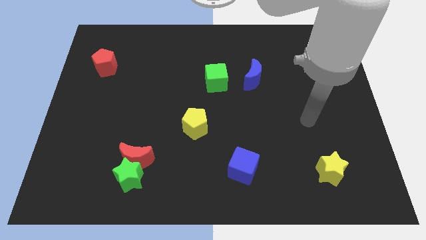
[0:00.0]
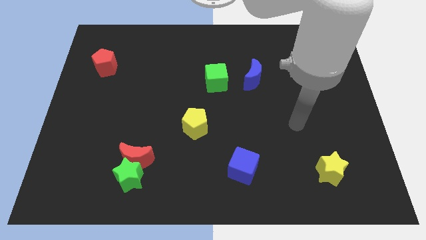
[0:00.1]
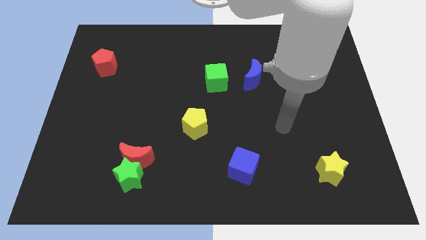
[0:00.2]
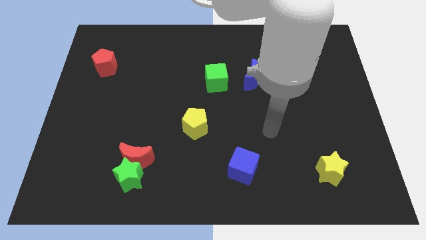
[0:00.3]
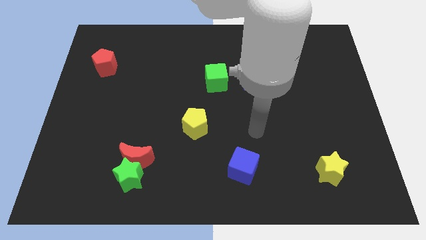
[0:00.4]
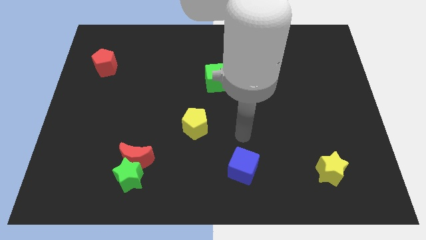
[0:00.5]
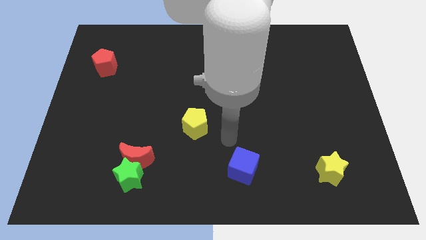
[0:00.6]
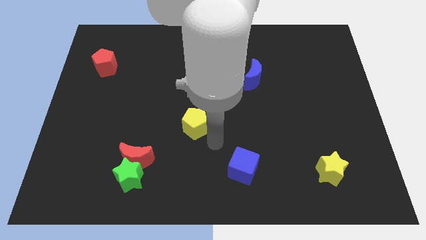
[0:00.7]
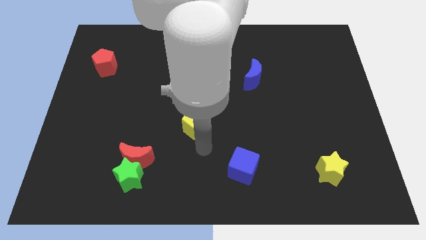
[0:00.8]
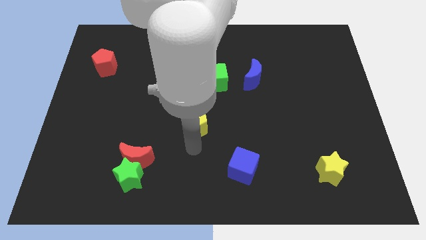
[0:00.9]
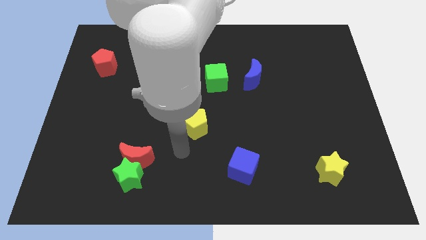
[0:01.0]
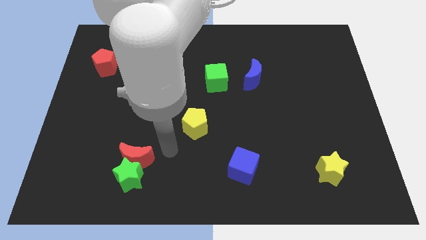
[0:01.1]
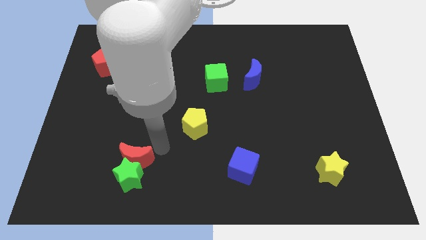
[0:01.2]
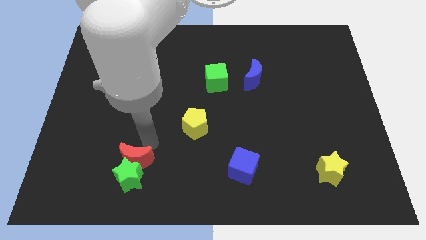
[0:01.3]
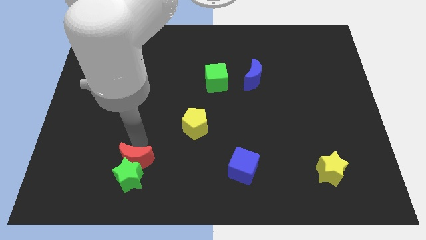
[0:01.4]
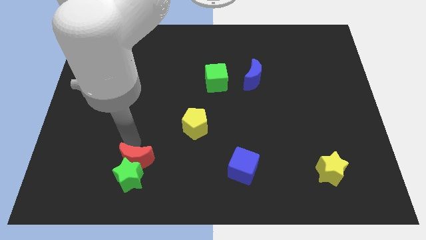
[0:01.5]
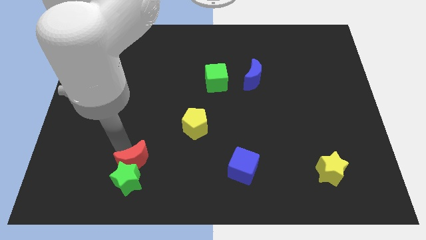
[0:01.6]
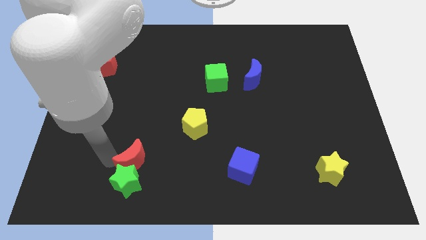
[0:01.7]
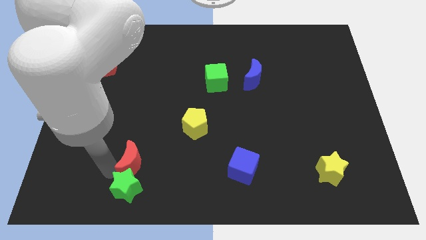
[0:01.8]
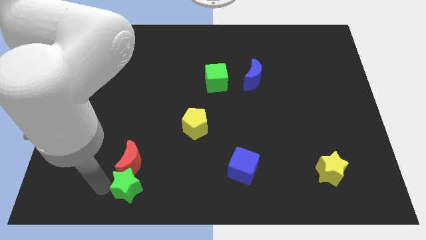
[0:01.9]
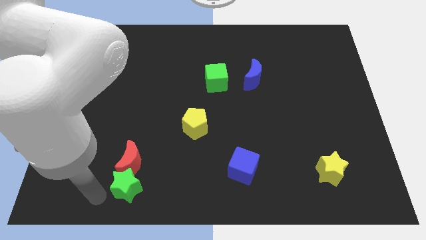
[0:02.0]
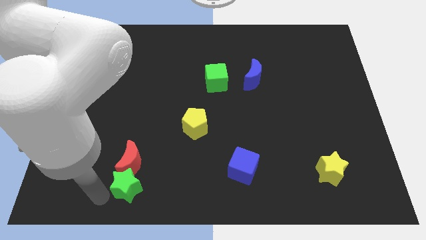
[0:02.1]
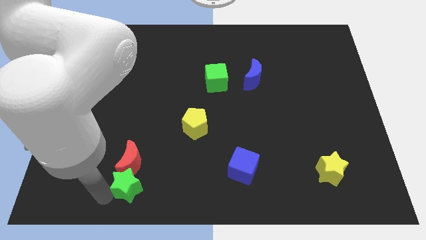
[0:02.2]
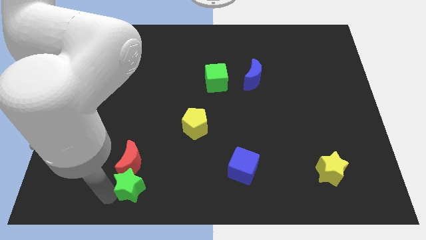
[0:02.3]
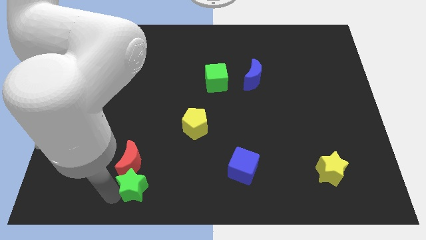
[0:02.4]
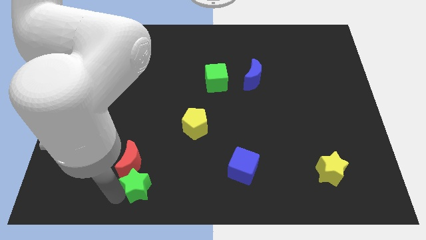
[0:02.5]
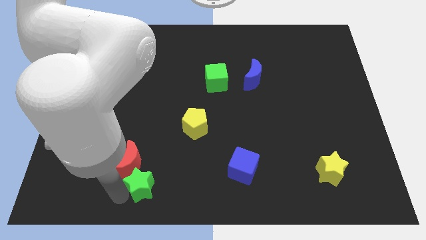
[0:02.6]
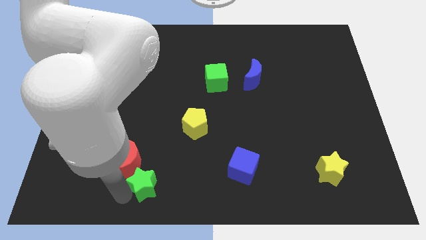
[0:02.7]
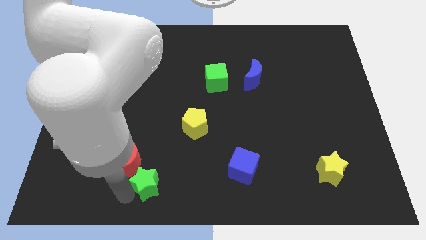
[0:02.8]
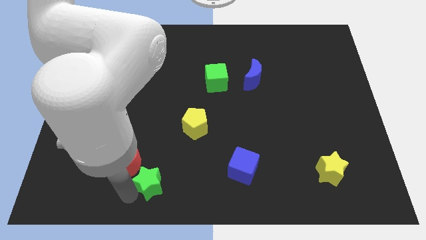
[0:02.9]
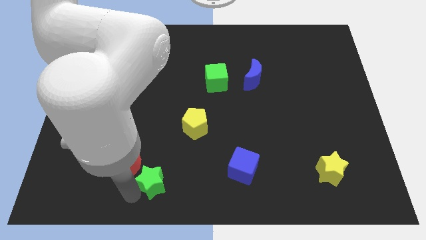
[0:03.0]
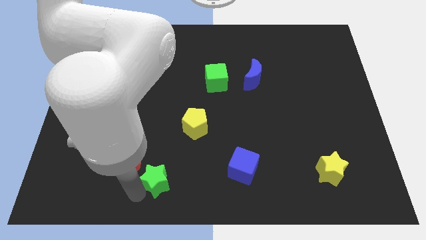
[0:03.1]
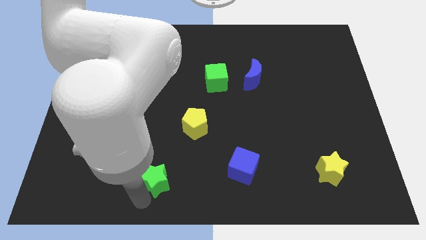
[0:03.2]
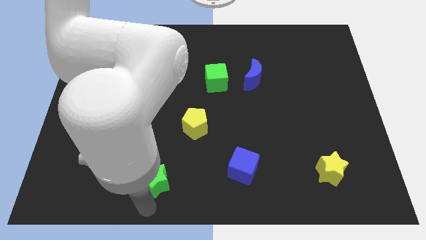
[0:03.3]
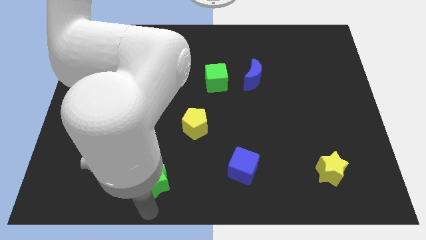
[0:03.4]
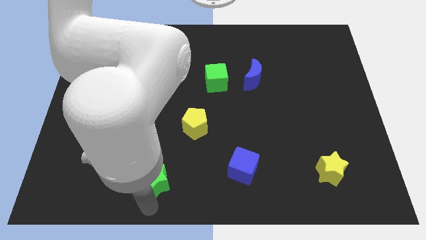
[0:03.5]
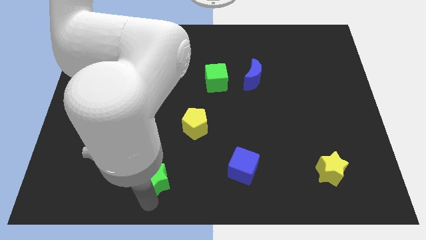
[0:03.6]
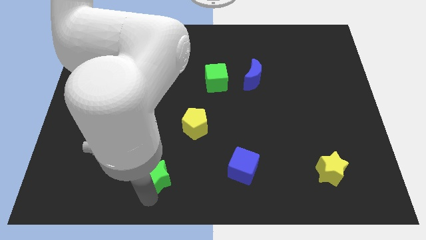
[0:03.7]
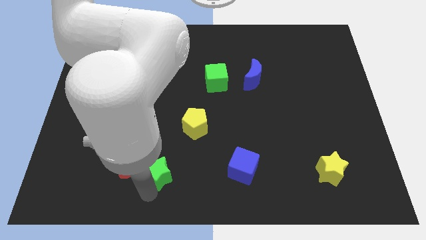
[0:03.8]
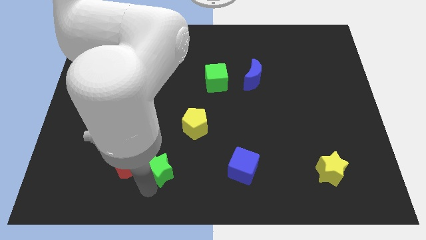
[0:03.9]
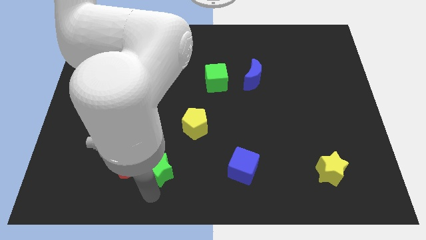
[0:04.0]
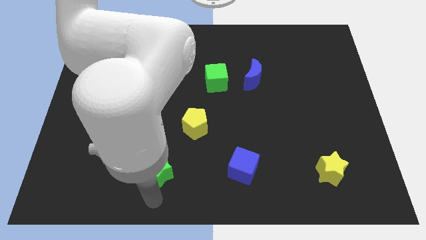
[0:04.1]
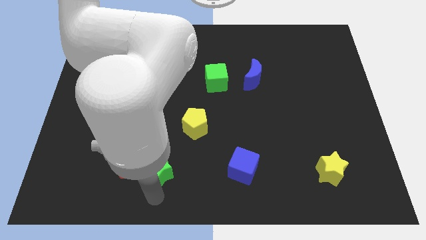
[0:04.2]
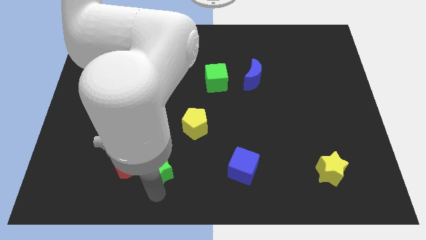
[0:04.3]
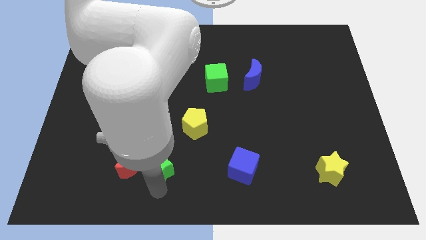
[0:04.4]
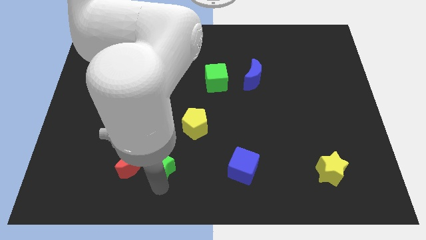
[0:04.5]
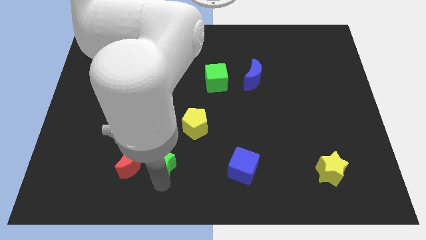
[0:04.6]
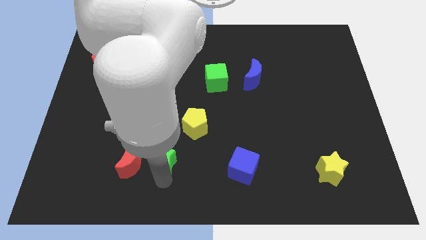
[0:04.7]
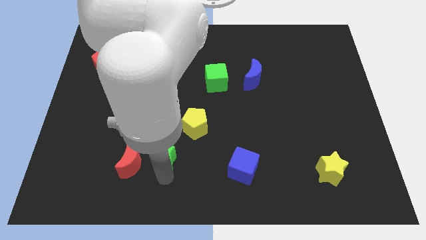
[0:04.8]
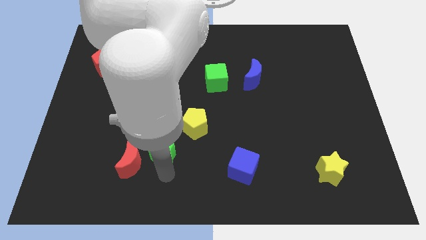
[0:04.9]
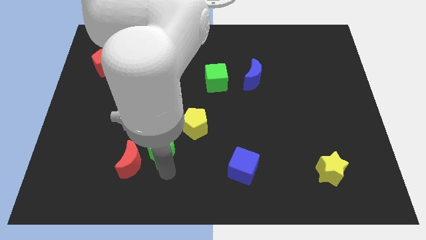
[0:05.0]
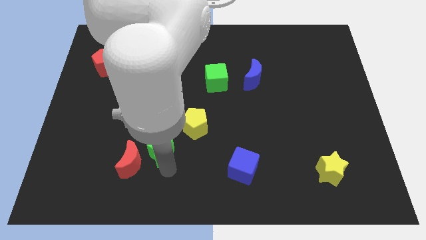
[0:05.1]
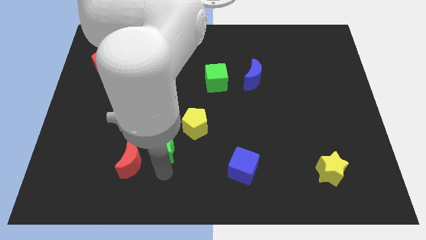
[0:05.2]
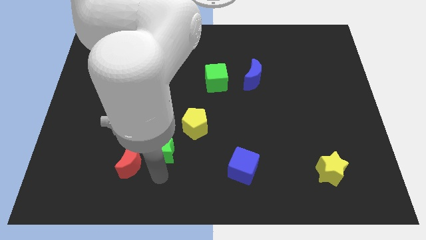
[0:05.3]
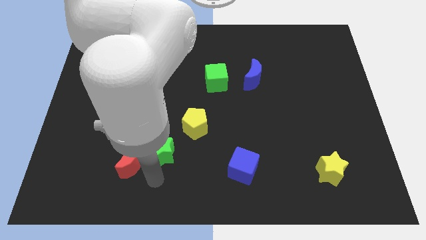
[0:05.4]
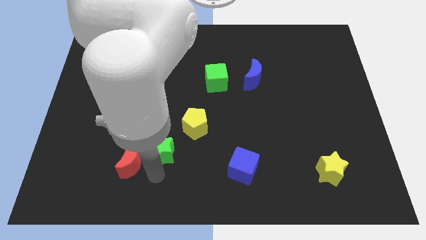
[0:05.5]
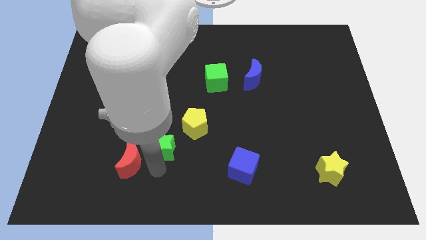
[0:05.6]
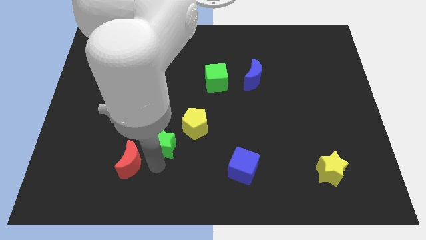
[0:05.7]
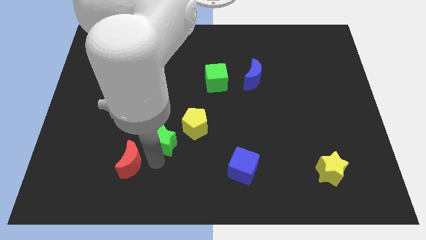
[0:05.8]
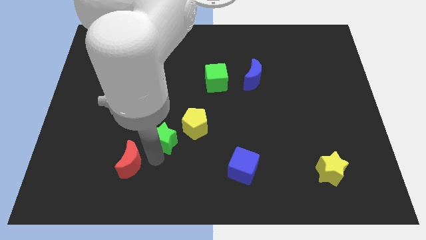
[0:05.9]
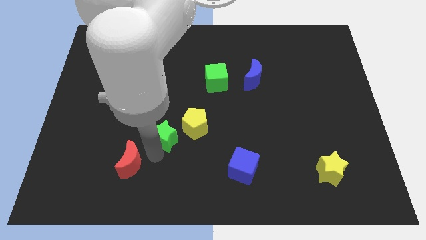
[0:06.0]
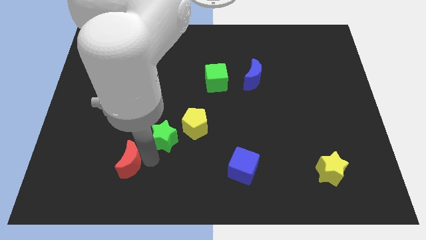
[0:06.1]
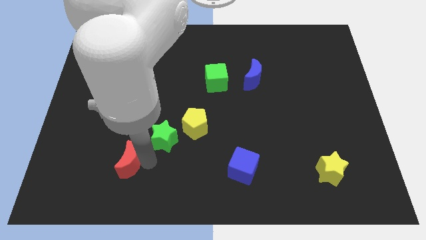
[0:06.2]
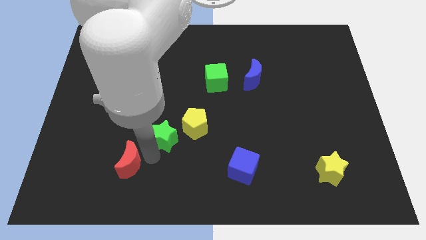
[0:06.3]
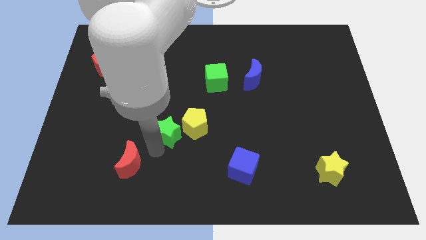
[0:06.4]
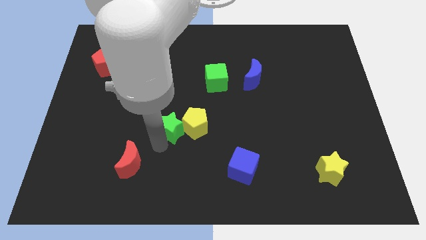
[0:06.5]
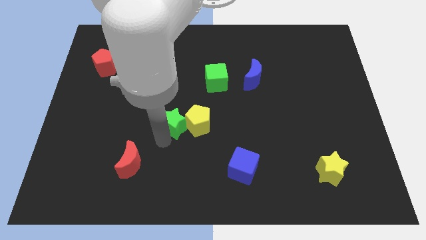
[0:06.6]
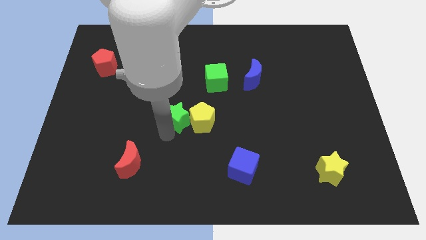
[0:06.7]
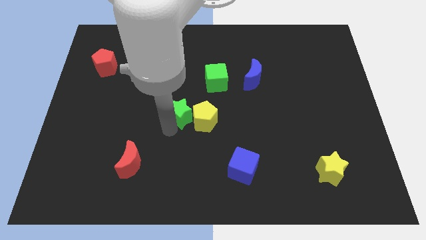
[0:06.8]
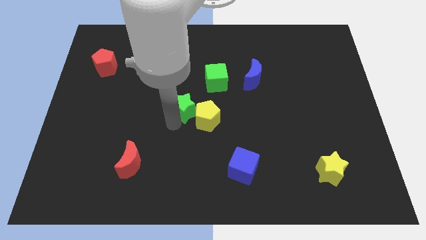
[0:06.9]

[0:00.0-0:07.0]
slide the green star to the bottom left of the green cube
